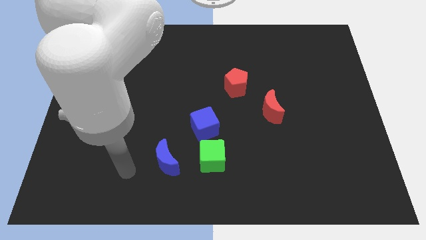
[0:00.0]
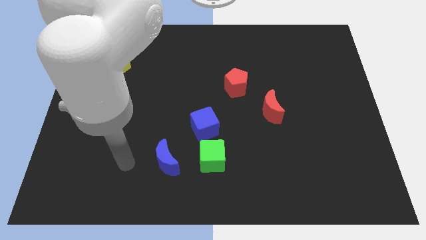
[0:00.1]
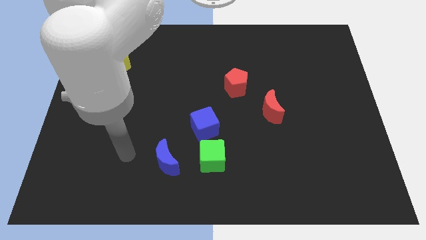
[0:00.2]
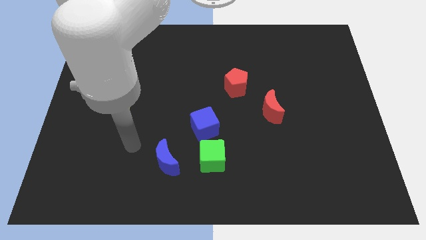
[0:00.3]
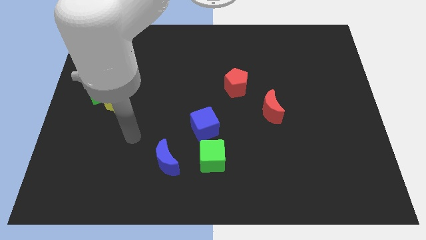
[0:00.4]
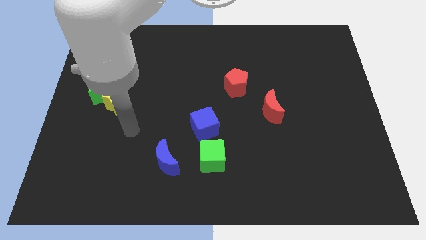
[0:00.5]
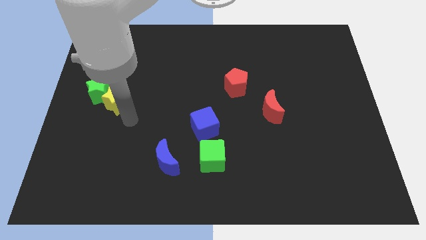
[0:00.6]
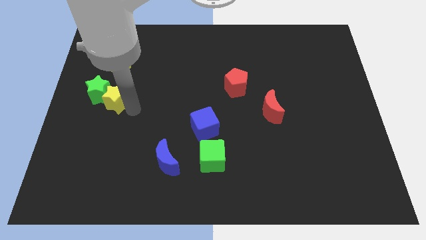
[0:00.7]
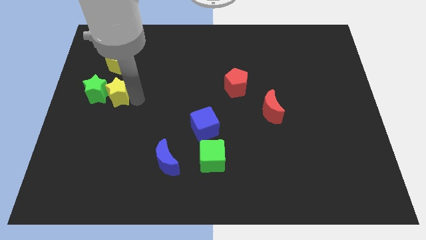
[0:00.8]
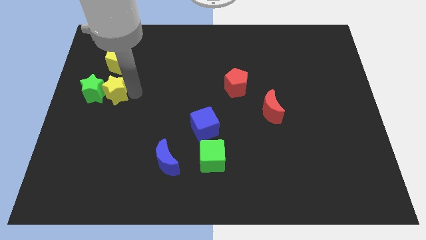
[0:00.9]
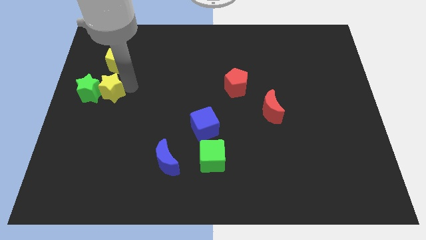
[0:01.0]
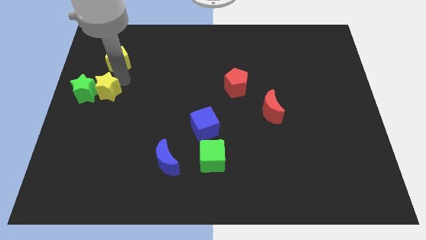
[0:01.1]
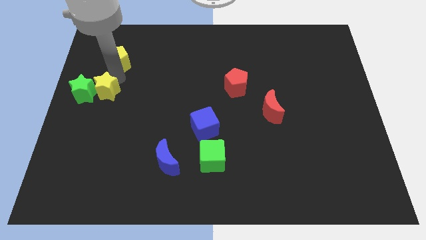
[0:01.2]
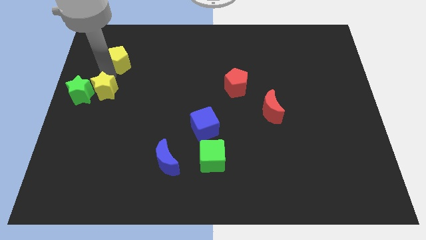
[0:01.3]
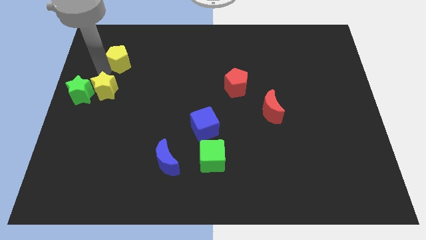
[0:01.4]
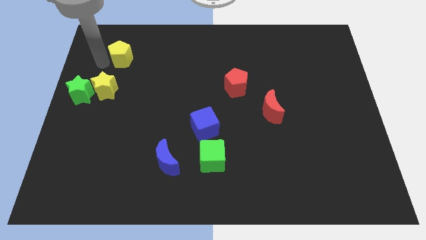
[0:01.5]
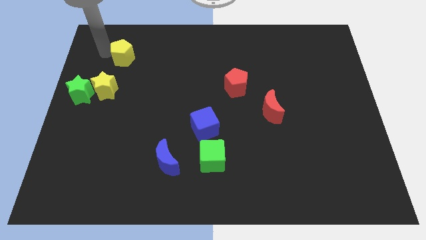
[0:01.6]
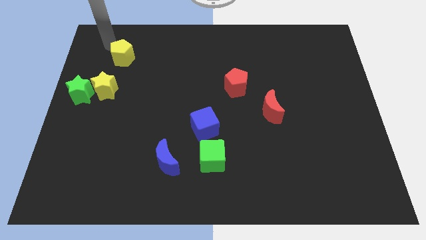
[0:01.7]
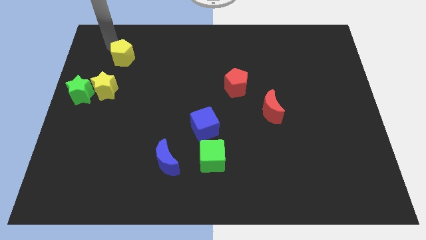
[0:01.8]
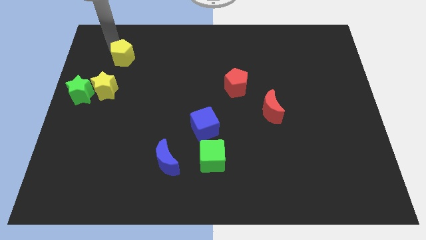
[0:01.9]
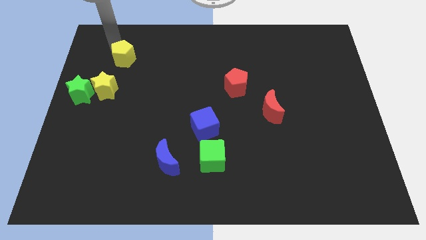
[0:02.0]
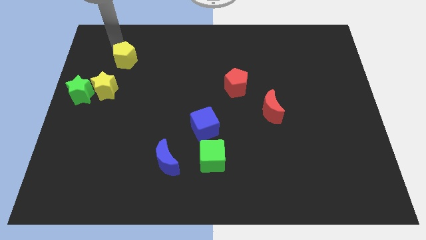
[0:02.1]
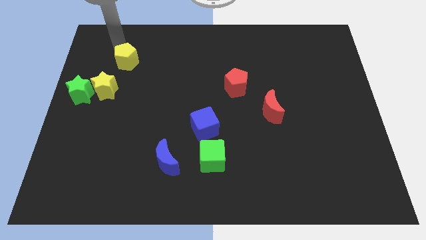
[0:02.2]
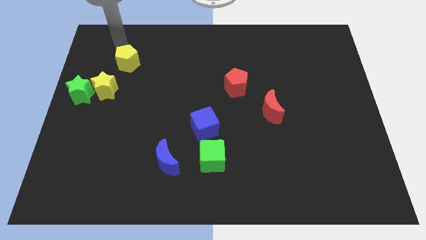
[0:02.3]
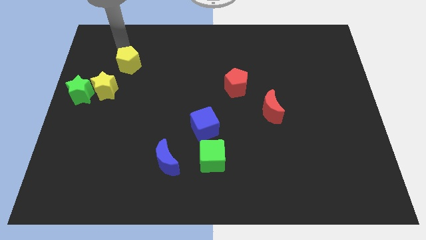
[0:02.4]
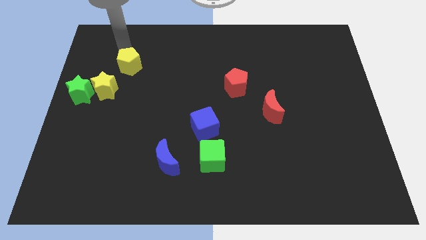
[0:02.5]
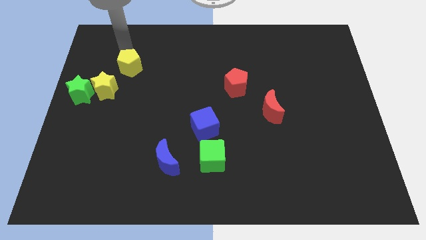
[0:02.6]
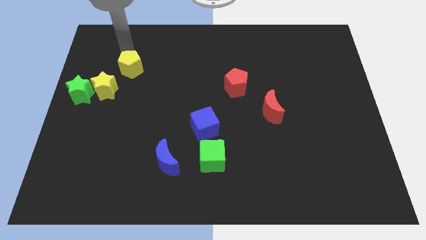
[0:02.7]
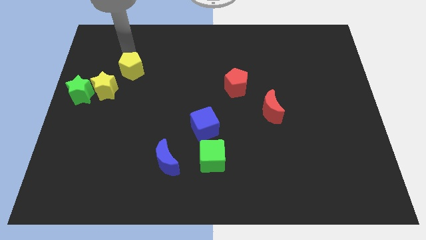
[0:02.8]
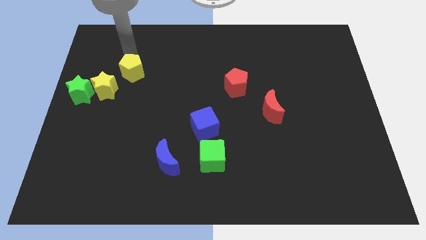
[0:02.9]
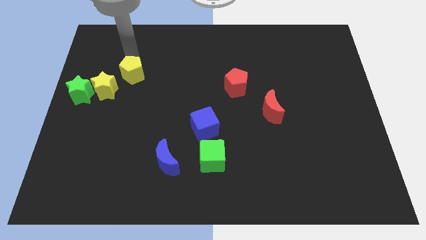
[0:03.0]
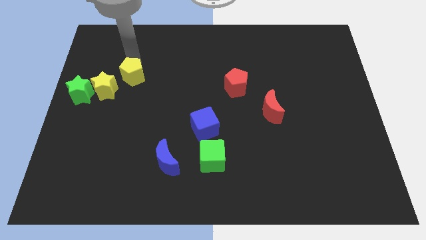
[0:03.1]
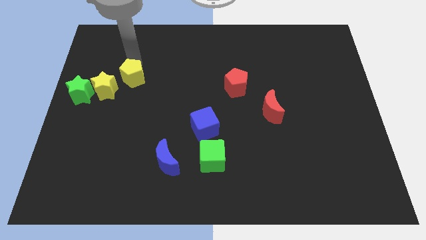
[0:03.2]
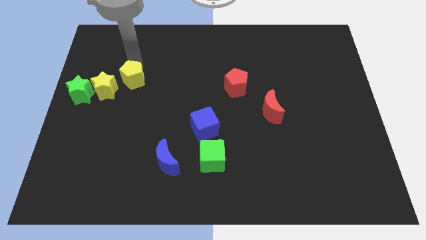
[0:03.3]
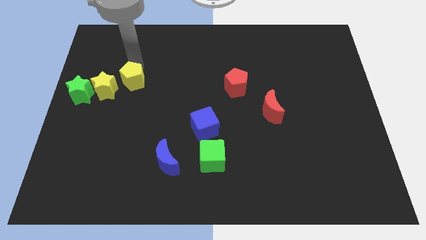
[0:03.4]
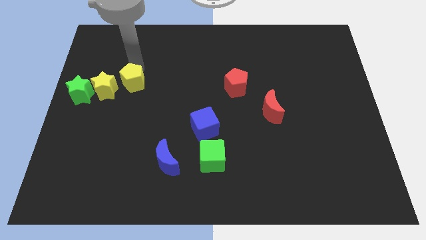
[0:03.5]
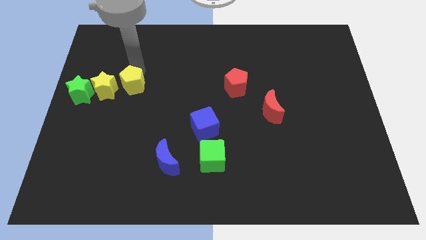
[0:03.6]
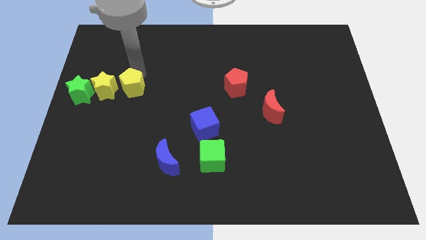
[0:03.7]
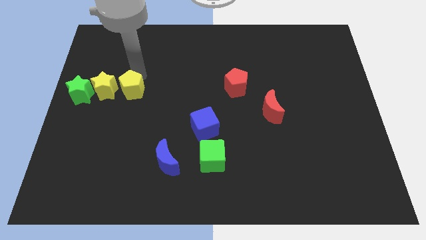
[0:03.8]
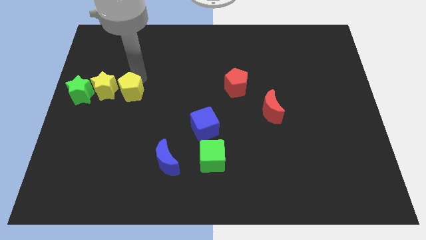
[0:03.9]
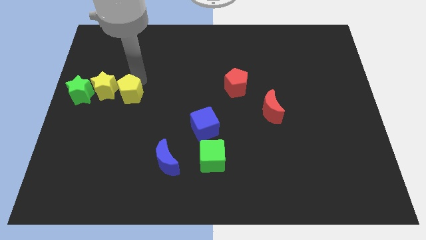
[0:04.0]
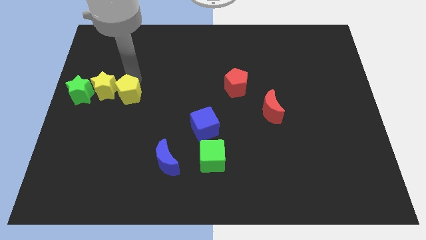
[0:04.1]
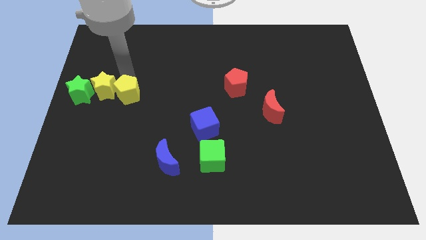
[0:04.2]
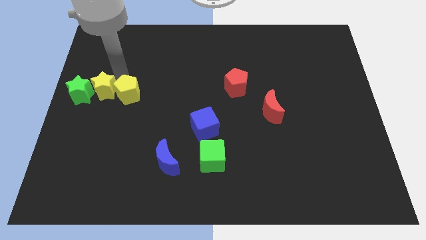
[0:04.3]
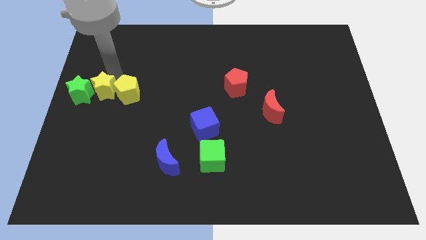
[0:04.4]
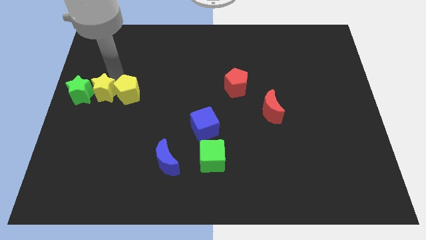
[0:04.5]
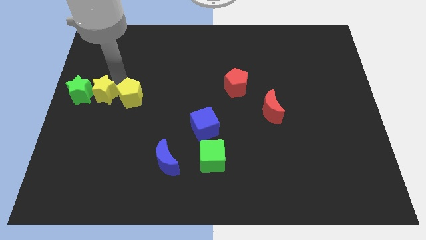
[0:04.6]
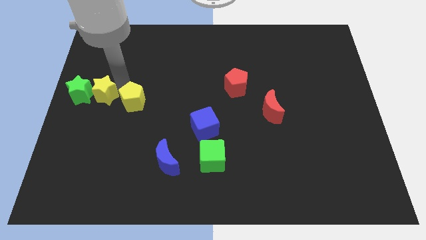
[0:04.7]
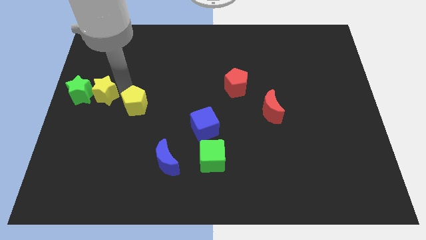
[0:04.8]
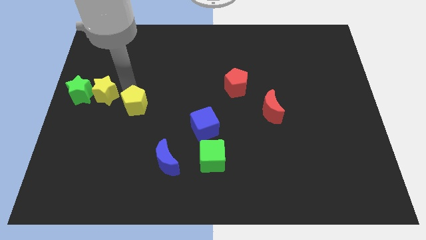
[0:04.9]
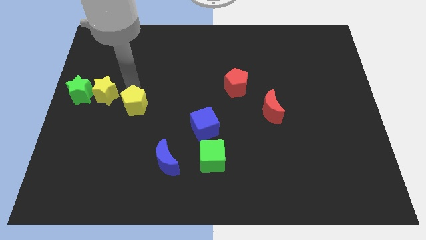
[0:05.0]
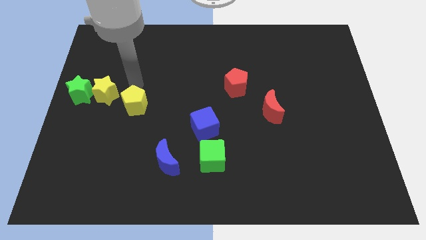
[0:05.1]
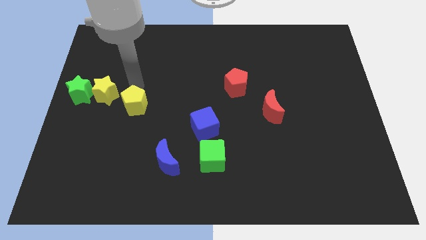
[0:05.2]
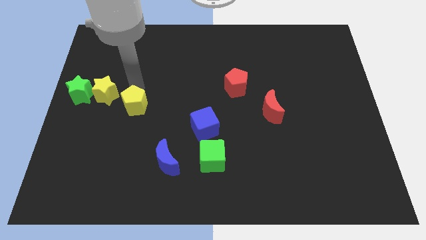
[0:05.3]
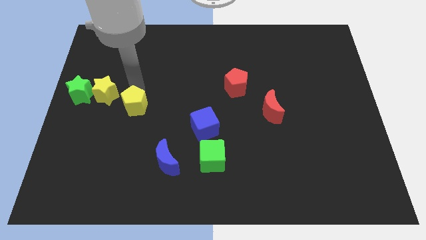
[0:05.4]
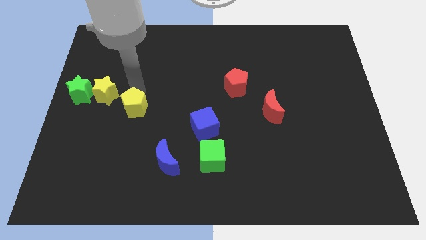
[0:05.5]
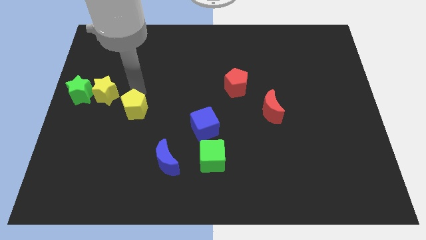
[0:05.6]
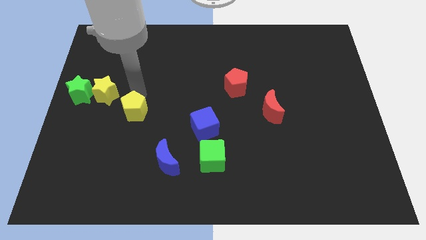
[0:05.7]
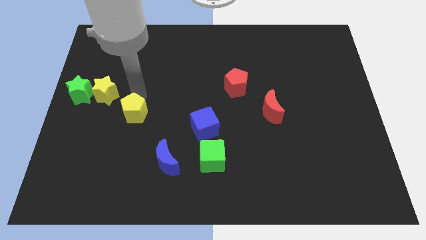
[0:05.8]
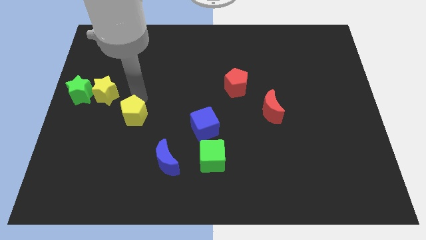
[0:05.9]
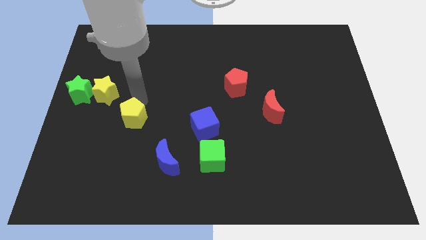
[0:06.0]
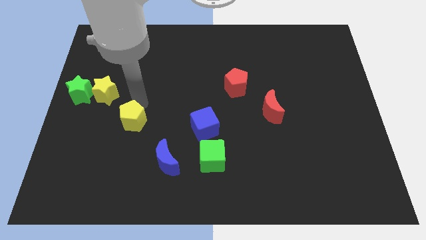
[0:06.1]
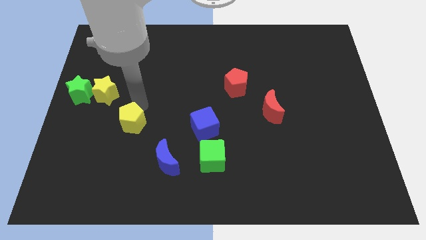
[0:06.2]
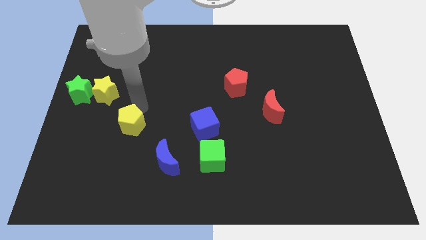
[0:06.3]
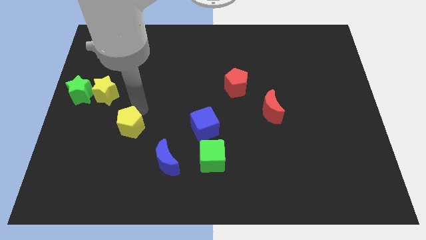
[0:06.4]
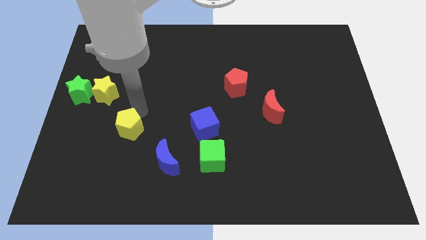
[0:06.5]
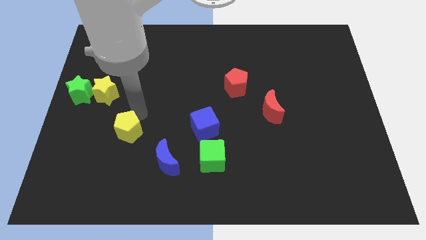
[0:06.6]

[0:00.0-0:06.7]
push the yellow pentagon downwards

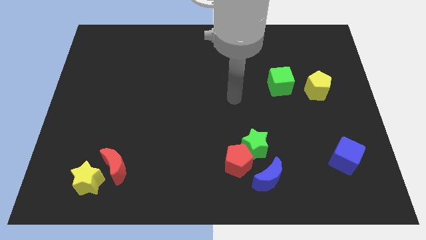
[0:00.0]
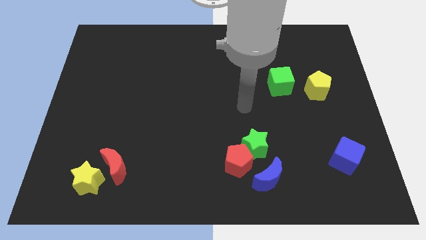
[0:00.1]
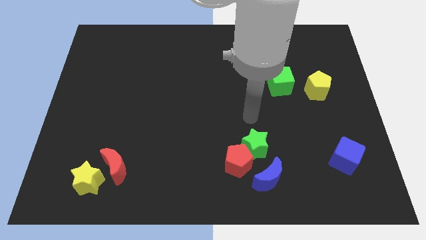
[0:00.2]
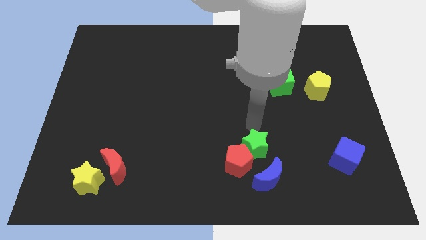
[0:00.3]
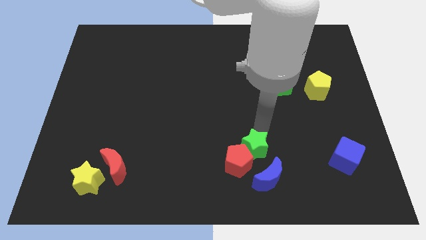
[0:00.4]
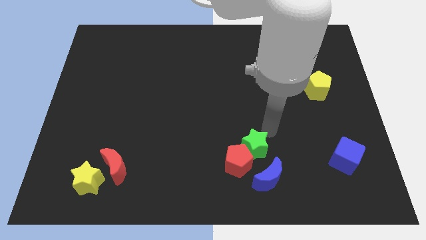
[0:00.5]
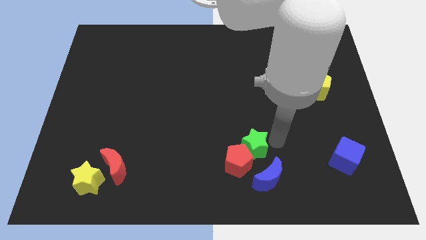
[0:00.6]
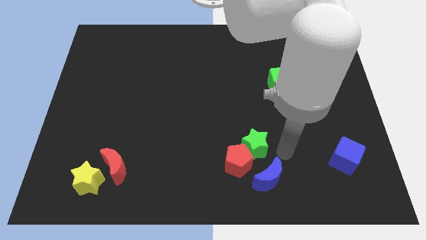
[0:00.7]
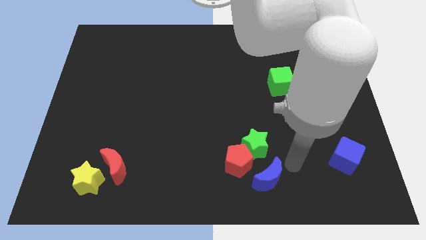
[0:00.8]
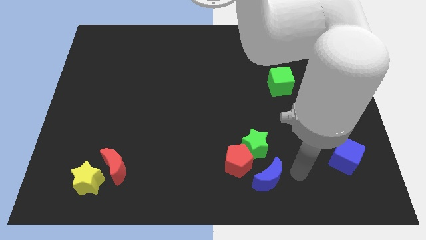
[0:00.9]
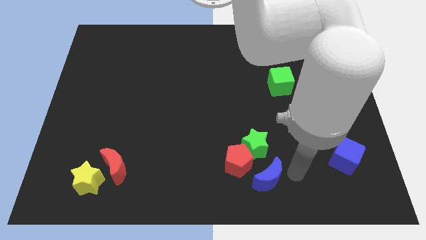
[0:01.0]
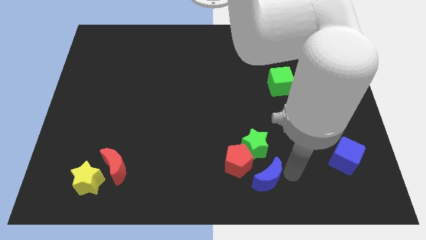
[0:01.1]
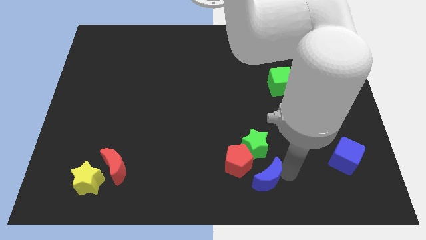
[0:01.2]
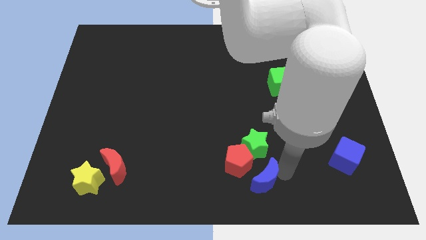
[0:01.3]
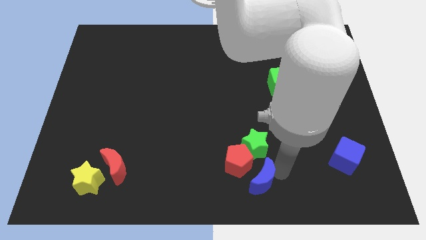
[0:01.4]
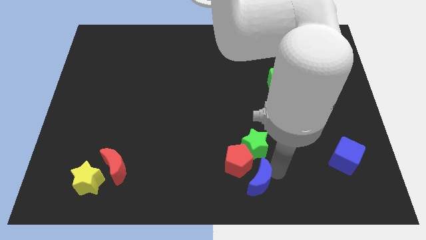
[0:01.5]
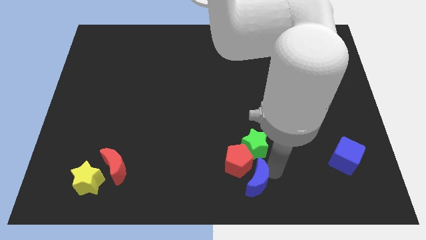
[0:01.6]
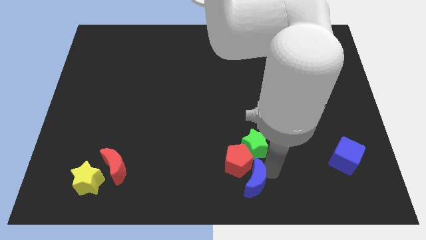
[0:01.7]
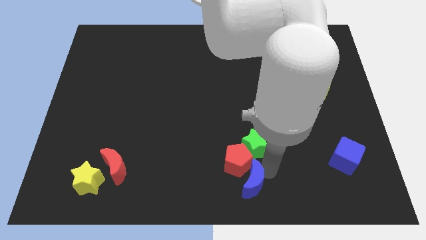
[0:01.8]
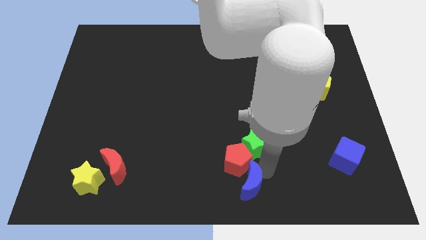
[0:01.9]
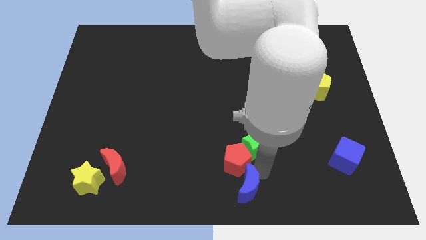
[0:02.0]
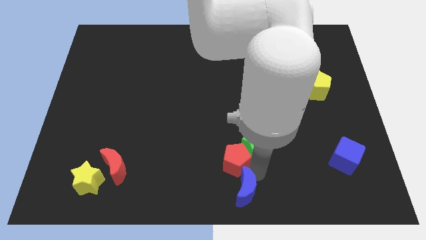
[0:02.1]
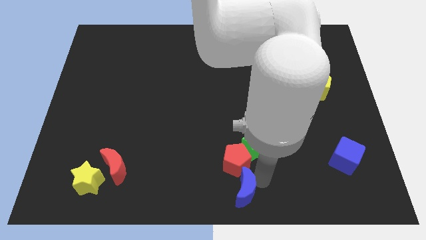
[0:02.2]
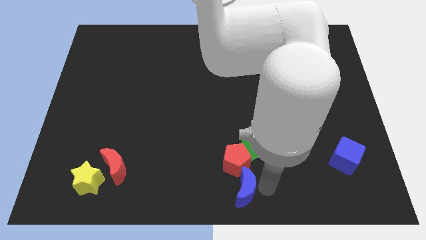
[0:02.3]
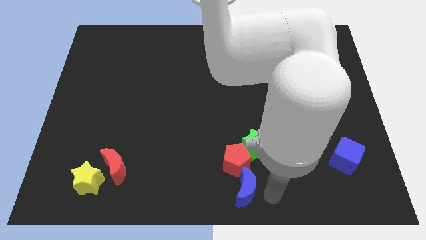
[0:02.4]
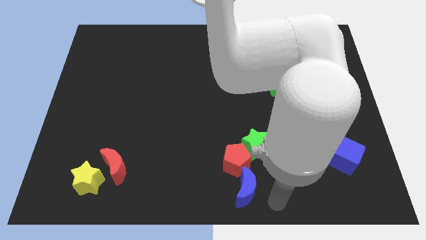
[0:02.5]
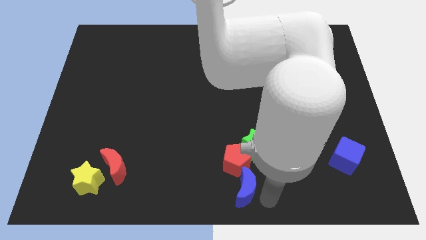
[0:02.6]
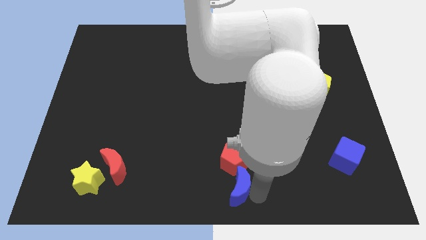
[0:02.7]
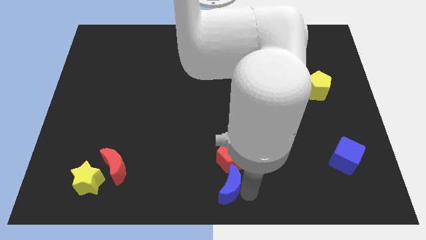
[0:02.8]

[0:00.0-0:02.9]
push the blue moon a little bit to the left
